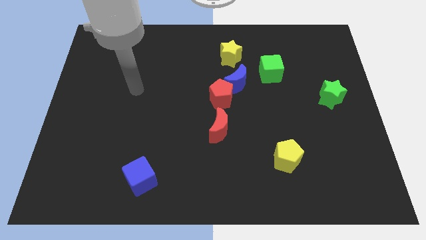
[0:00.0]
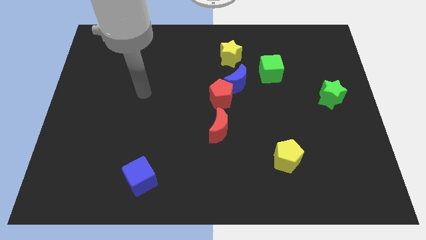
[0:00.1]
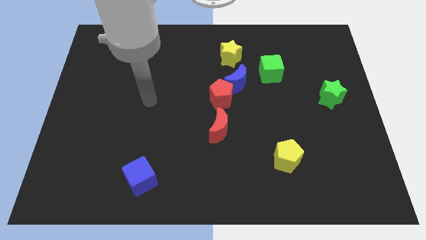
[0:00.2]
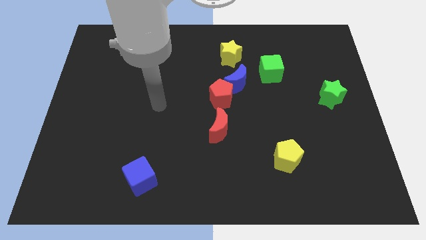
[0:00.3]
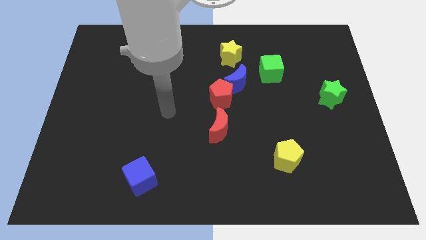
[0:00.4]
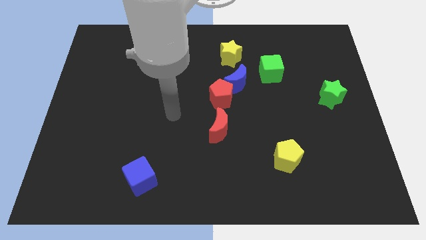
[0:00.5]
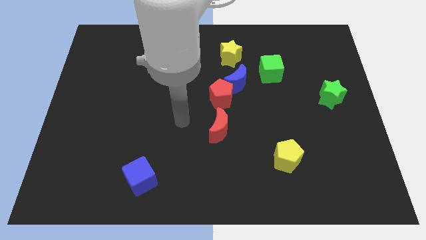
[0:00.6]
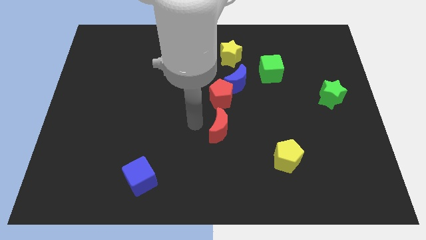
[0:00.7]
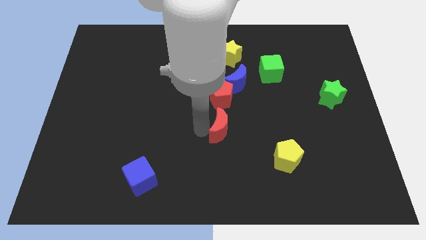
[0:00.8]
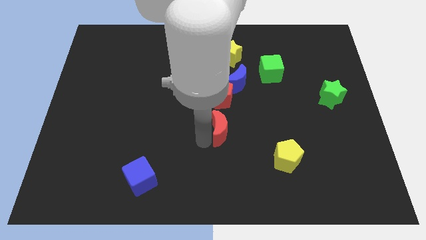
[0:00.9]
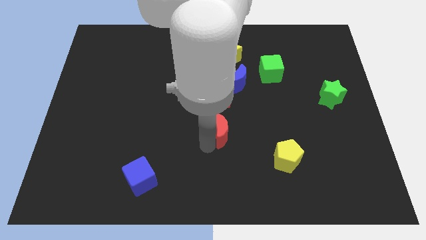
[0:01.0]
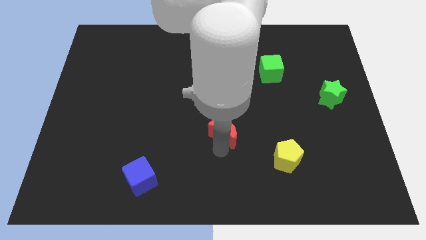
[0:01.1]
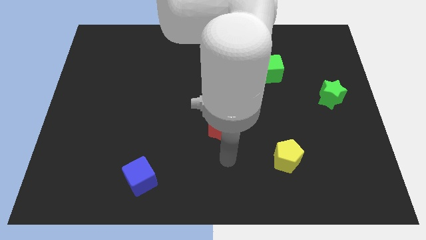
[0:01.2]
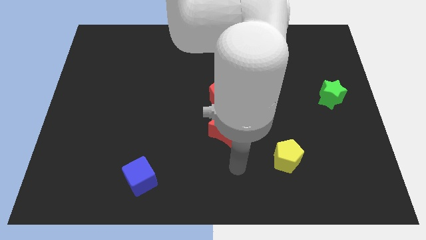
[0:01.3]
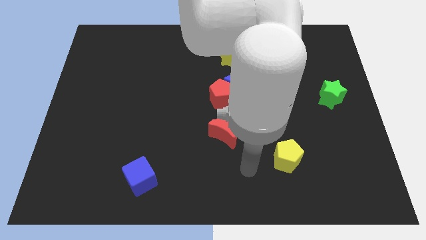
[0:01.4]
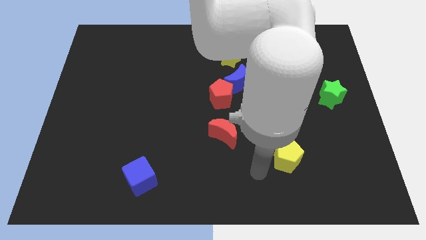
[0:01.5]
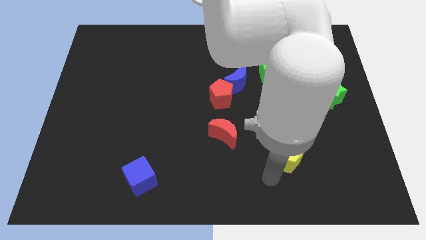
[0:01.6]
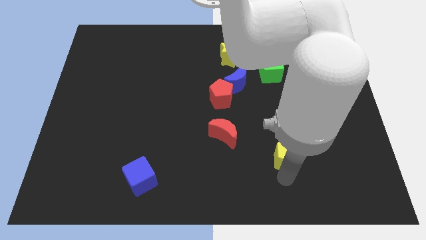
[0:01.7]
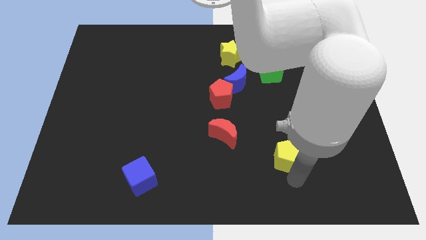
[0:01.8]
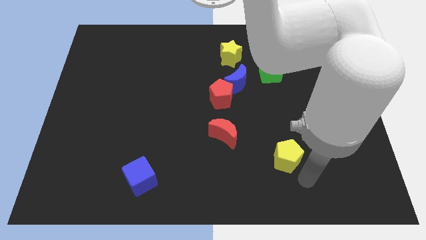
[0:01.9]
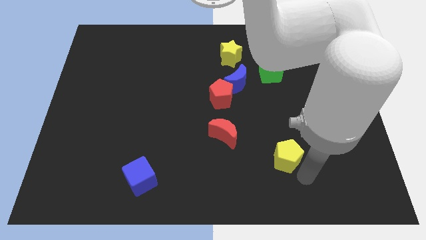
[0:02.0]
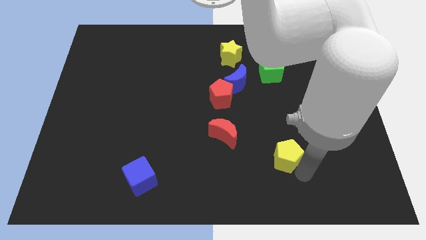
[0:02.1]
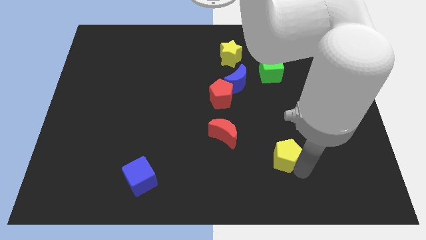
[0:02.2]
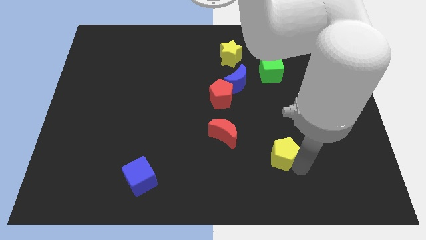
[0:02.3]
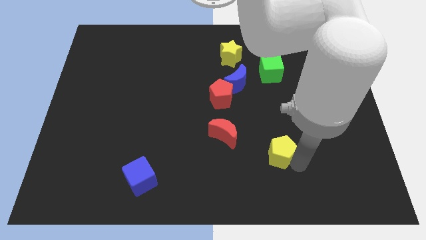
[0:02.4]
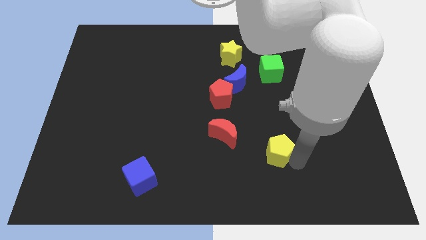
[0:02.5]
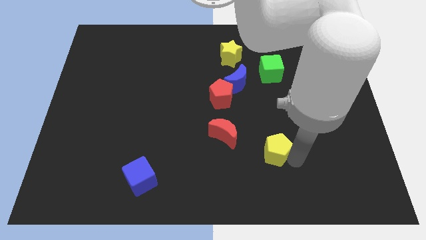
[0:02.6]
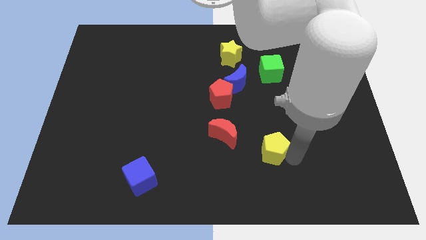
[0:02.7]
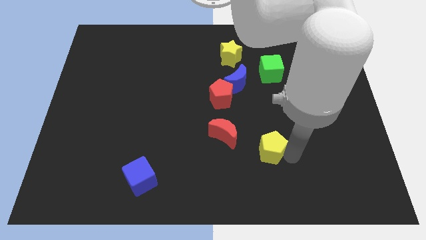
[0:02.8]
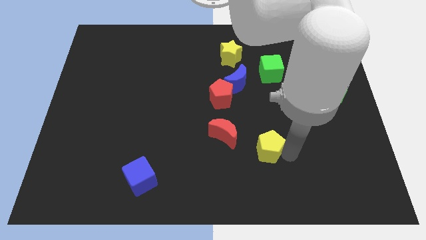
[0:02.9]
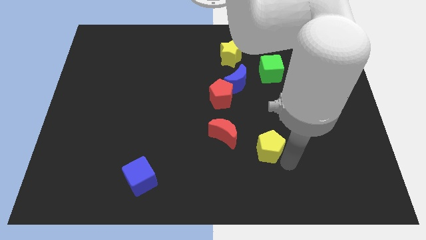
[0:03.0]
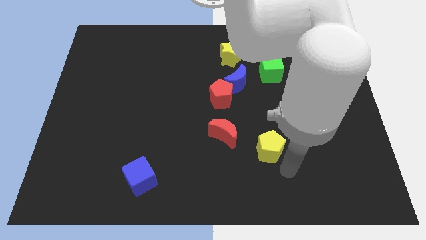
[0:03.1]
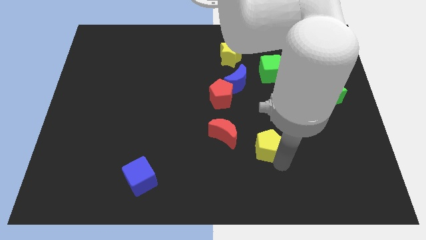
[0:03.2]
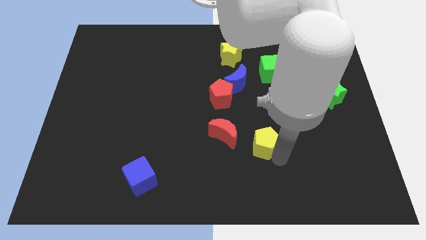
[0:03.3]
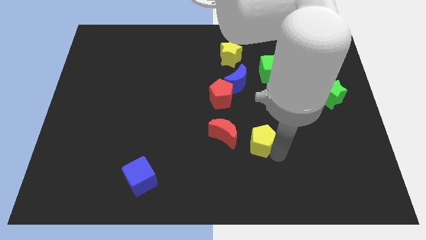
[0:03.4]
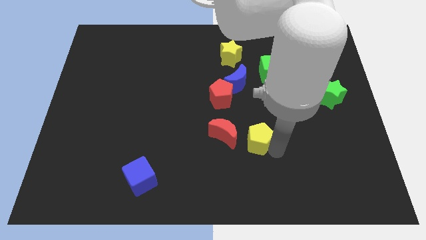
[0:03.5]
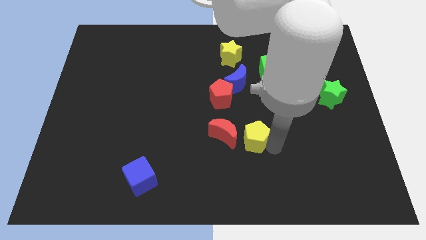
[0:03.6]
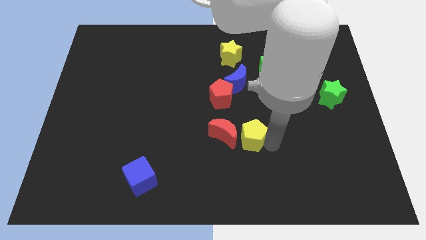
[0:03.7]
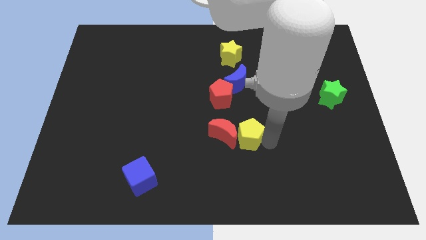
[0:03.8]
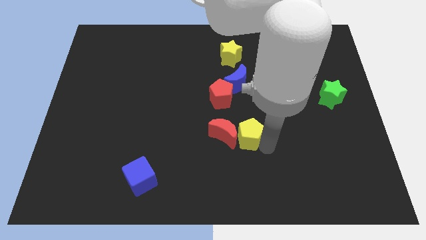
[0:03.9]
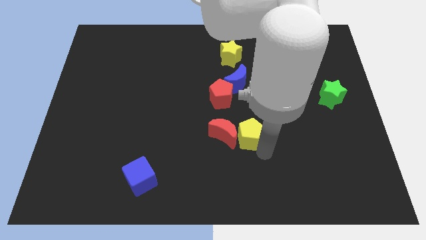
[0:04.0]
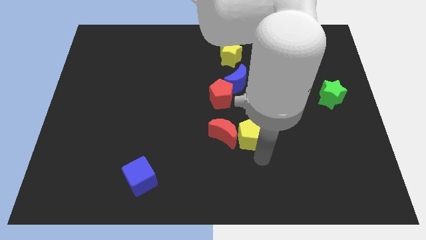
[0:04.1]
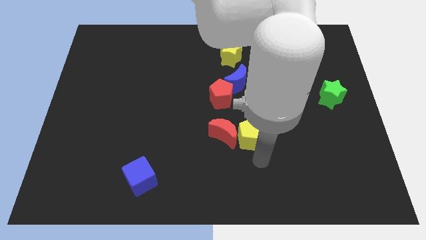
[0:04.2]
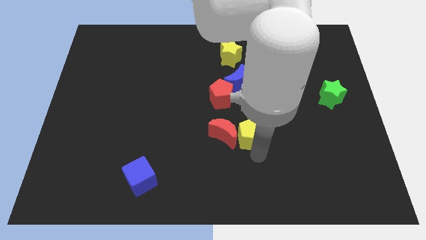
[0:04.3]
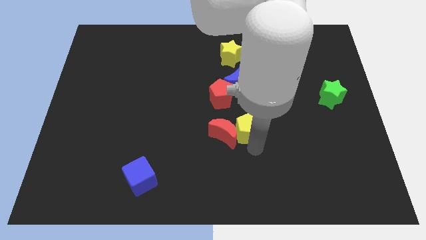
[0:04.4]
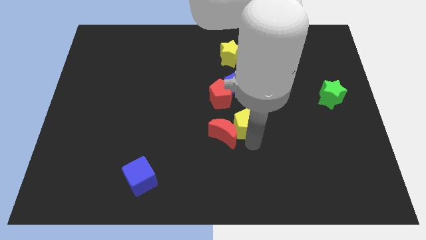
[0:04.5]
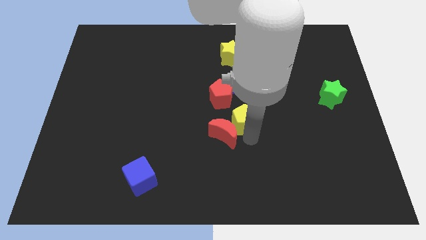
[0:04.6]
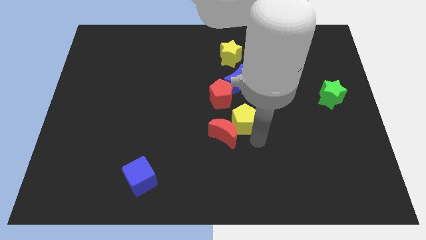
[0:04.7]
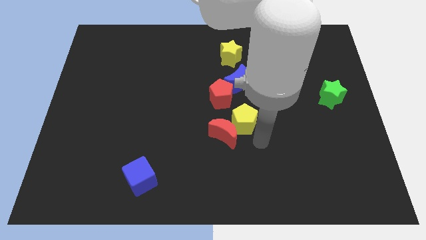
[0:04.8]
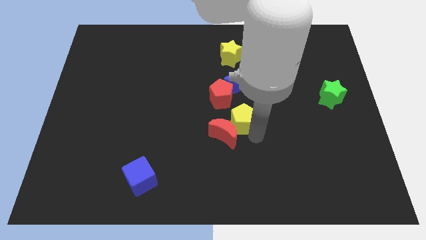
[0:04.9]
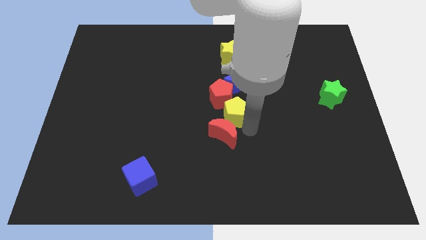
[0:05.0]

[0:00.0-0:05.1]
slide the yellow pentagon to the red pentagon

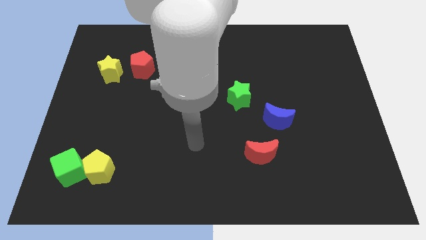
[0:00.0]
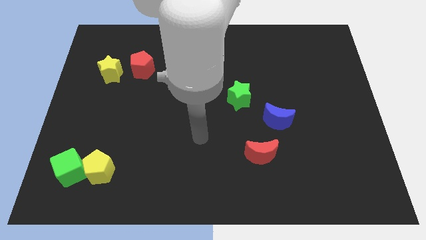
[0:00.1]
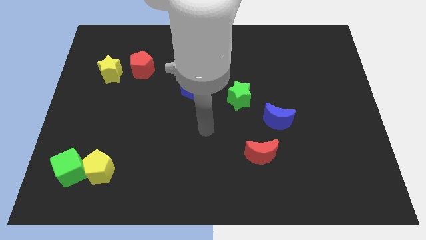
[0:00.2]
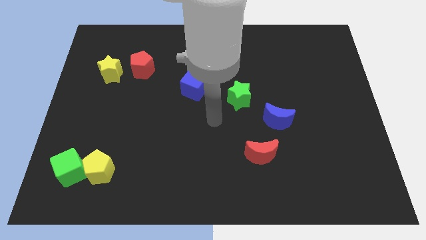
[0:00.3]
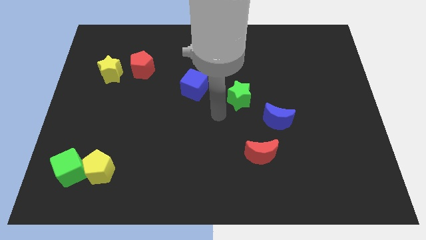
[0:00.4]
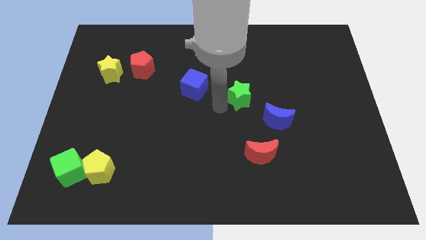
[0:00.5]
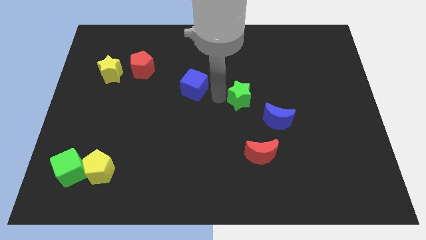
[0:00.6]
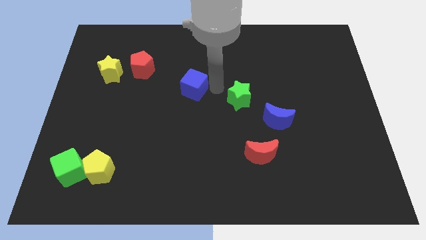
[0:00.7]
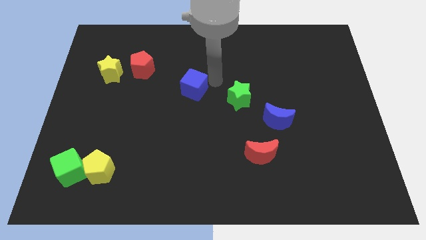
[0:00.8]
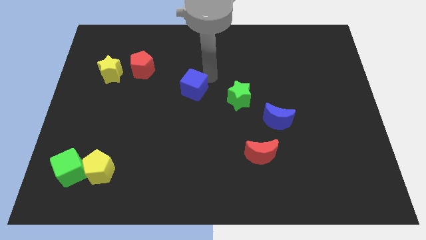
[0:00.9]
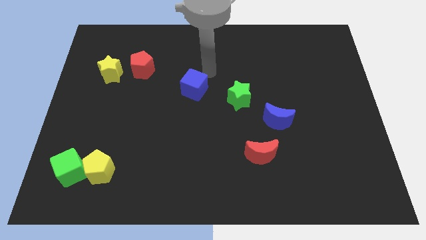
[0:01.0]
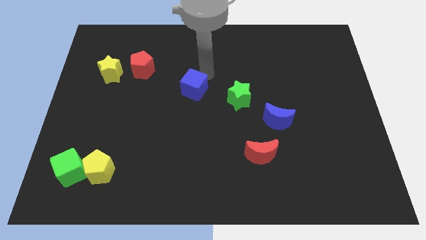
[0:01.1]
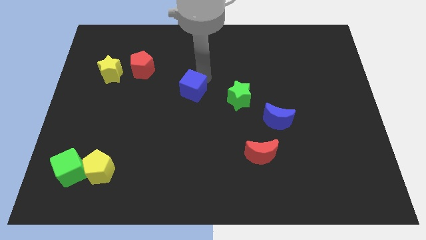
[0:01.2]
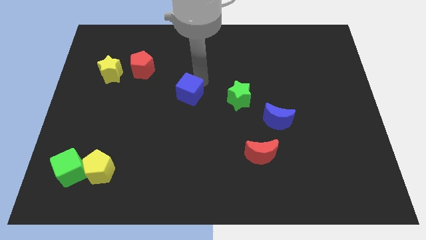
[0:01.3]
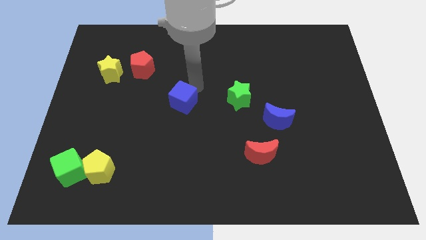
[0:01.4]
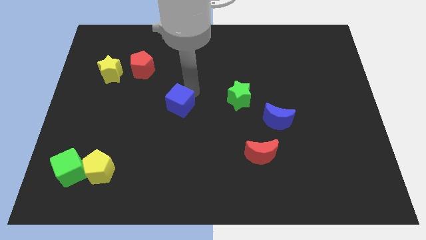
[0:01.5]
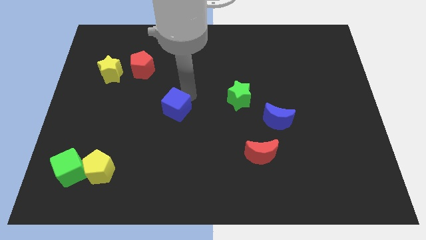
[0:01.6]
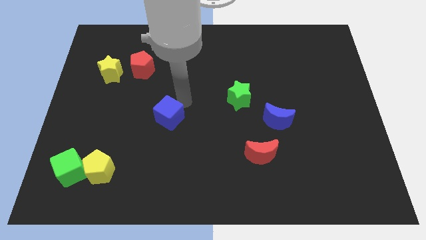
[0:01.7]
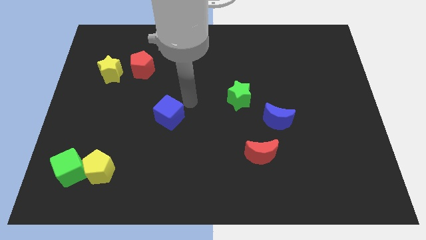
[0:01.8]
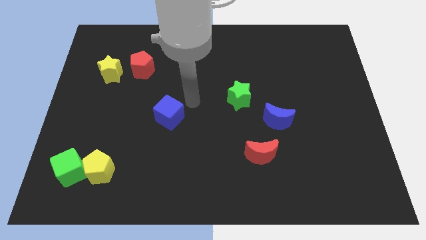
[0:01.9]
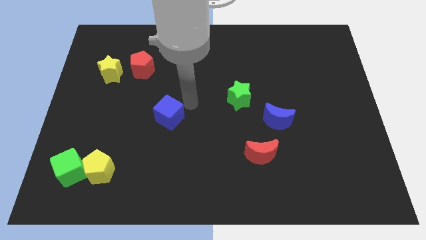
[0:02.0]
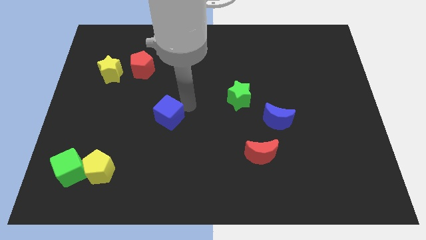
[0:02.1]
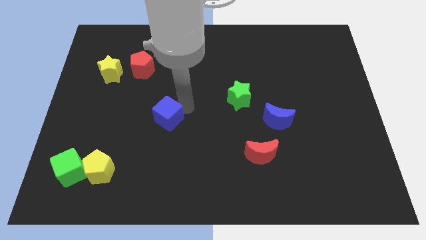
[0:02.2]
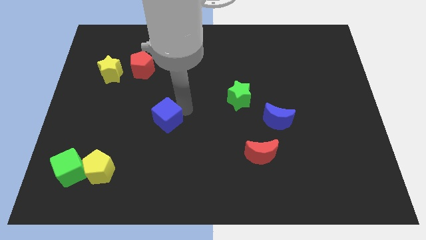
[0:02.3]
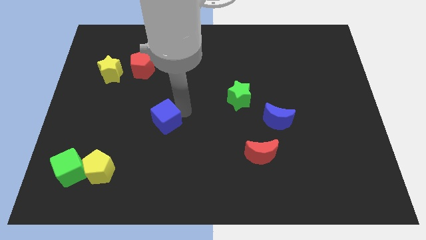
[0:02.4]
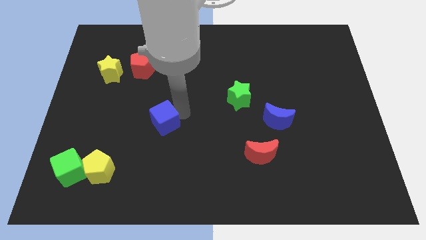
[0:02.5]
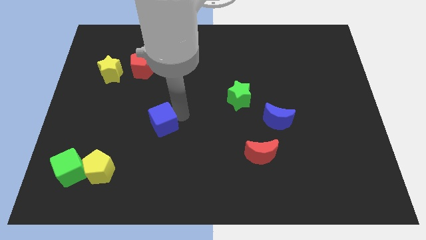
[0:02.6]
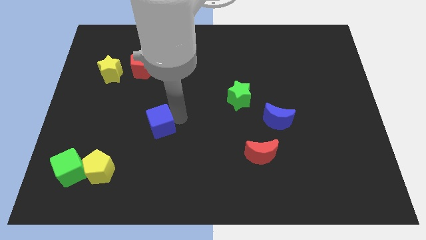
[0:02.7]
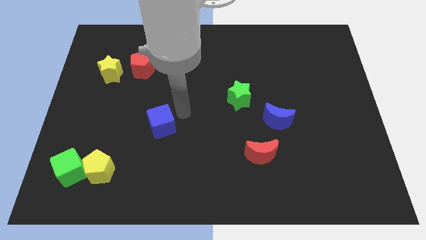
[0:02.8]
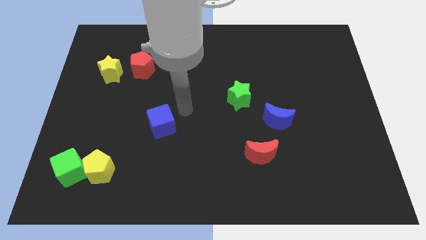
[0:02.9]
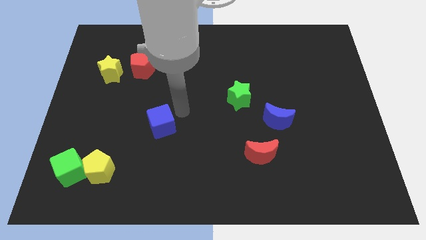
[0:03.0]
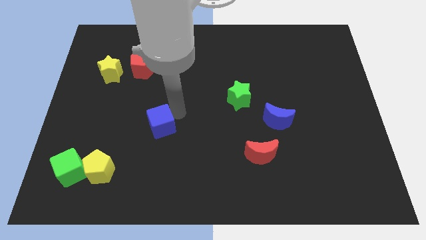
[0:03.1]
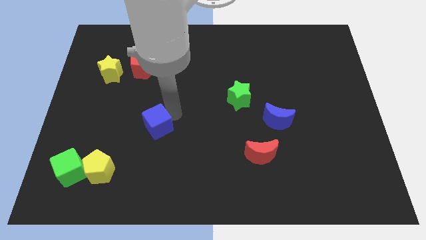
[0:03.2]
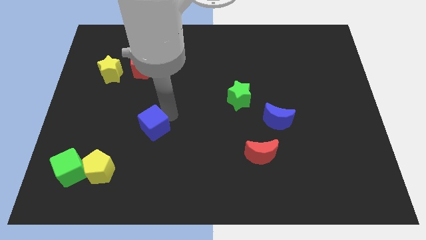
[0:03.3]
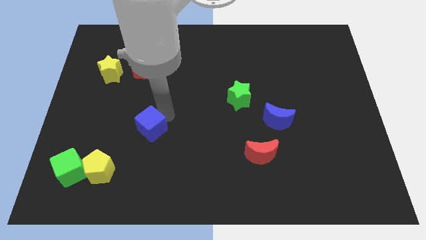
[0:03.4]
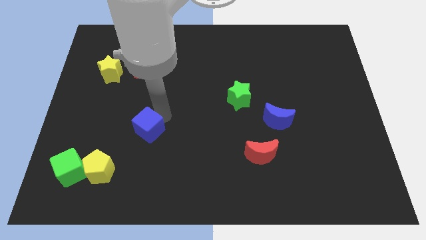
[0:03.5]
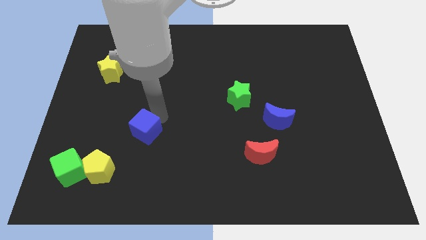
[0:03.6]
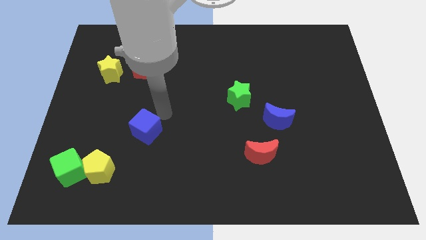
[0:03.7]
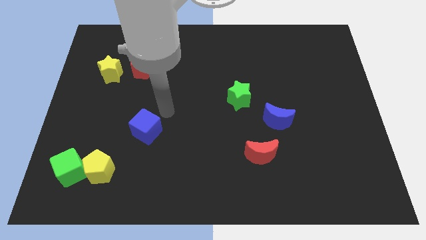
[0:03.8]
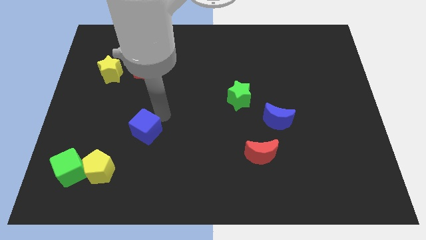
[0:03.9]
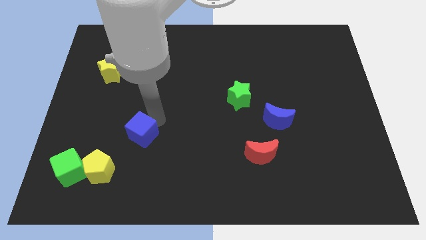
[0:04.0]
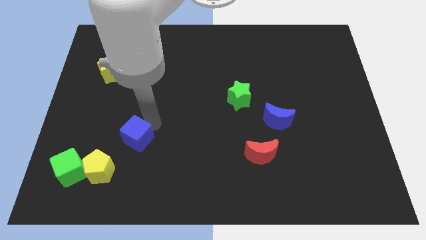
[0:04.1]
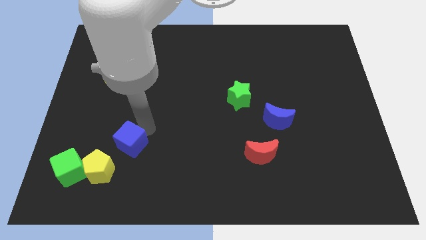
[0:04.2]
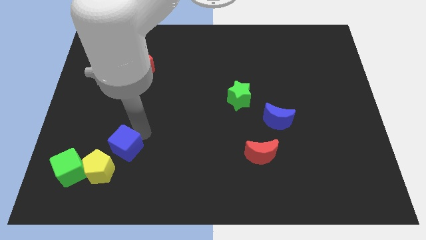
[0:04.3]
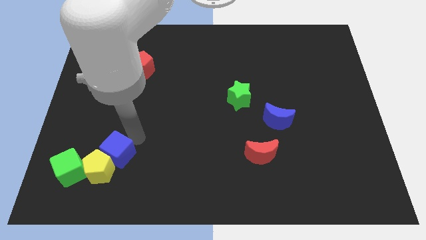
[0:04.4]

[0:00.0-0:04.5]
slide the blue cube to the yellow pentagon
